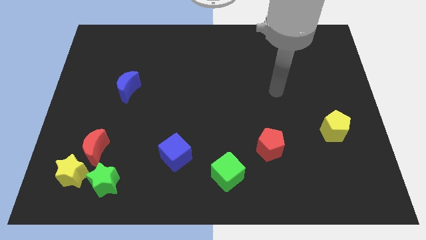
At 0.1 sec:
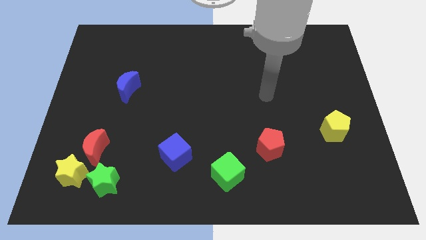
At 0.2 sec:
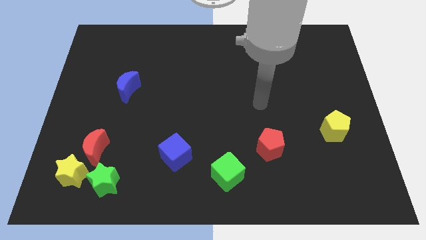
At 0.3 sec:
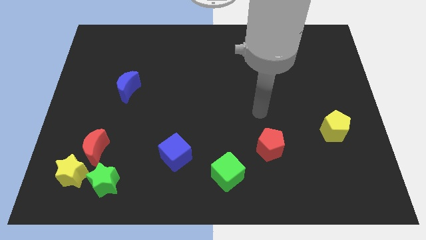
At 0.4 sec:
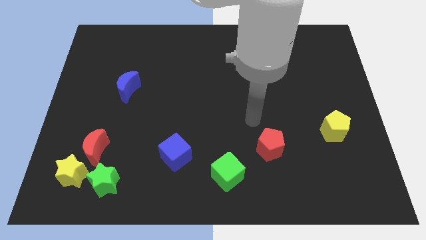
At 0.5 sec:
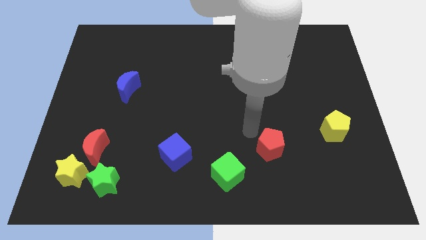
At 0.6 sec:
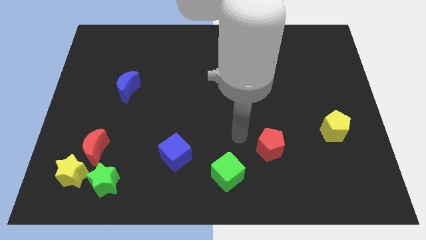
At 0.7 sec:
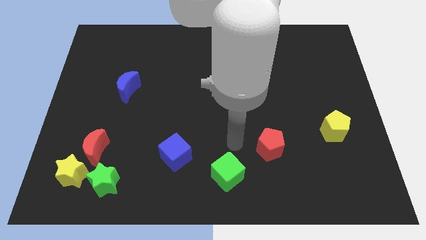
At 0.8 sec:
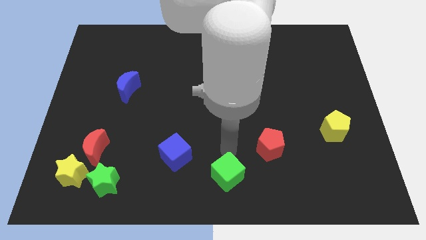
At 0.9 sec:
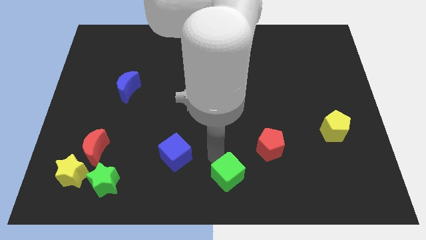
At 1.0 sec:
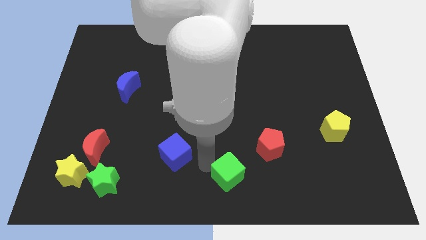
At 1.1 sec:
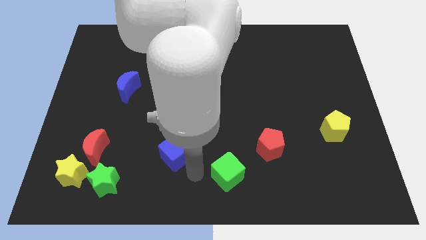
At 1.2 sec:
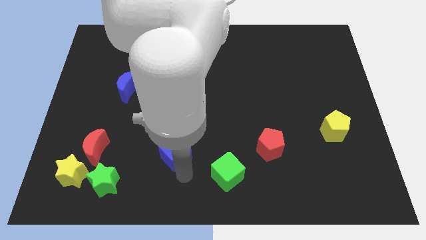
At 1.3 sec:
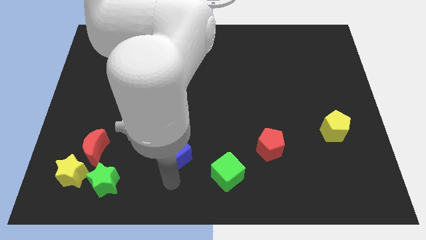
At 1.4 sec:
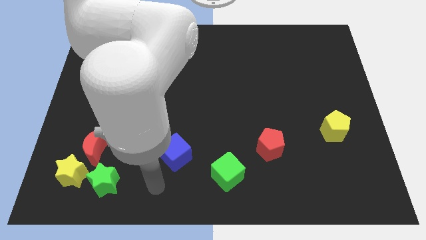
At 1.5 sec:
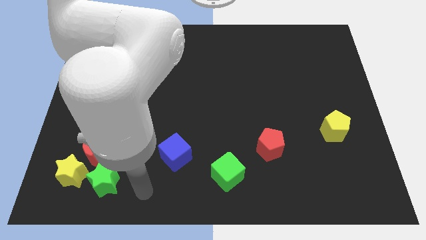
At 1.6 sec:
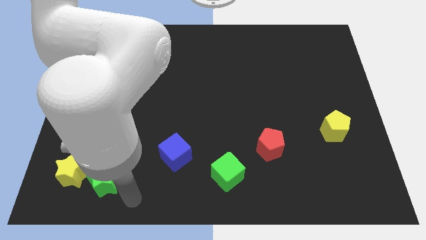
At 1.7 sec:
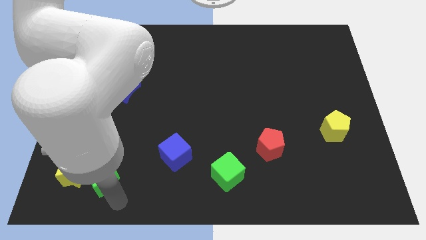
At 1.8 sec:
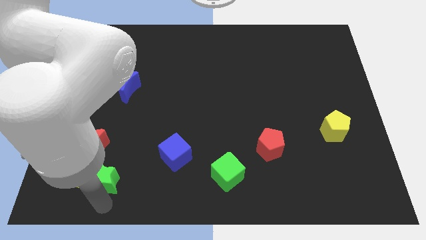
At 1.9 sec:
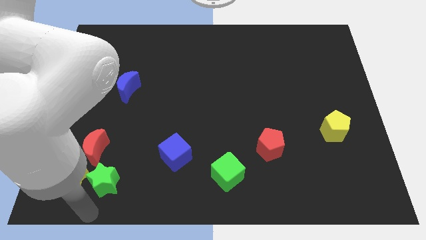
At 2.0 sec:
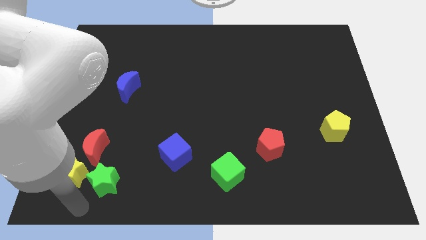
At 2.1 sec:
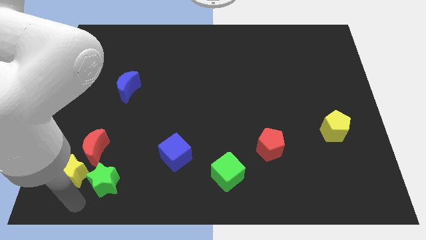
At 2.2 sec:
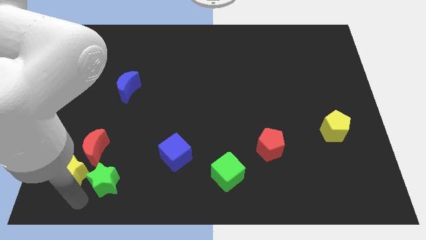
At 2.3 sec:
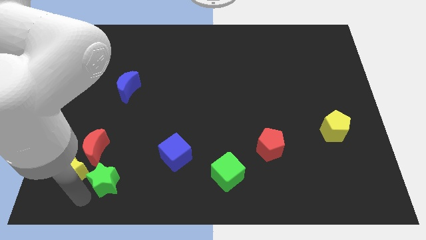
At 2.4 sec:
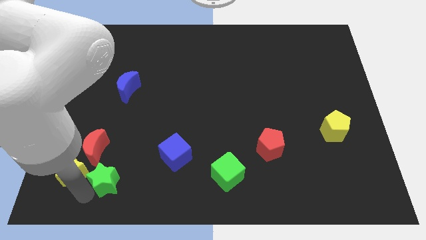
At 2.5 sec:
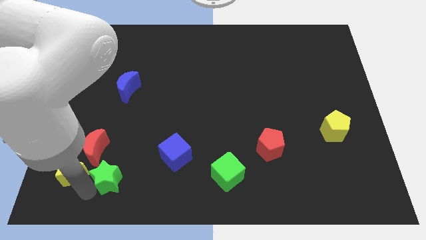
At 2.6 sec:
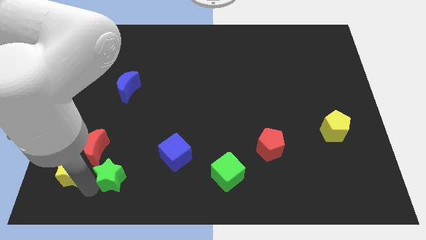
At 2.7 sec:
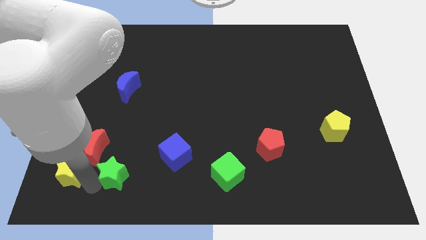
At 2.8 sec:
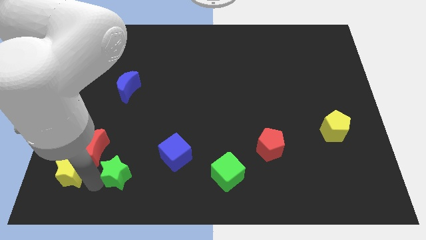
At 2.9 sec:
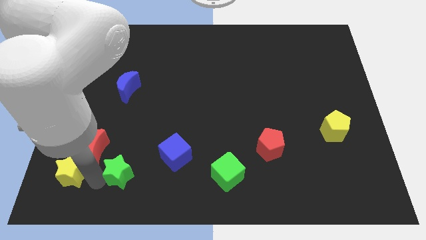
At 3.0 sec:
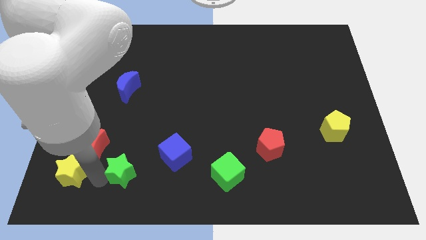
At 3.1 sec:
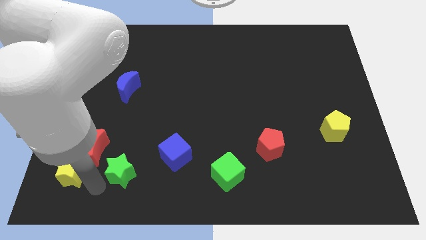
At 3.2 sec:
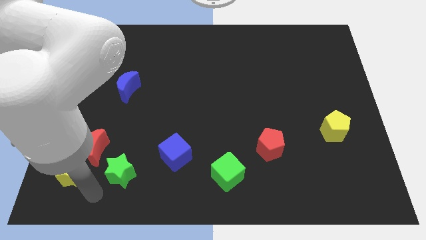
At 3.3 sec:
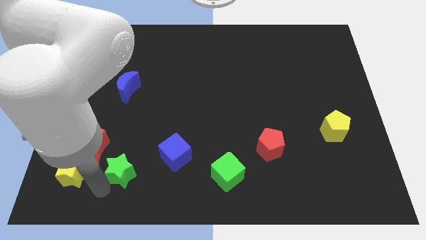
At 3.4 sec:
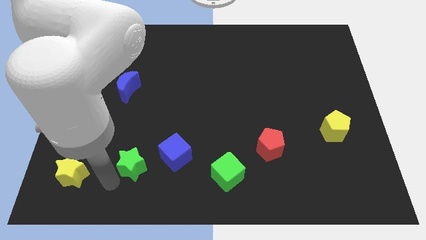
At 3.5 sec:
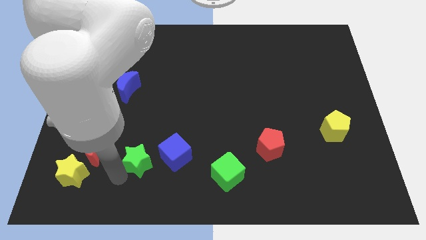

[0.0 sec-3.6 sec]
push the green star somewhat diagonally upwards and right

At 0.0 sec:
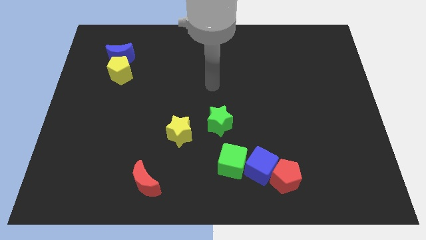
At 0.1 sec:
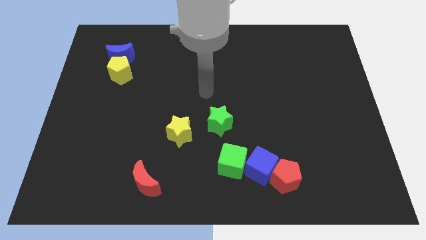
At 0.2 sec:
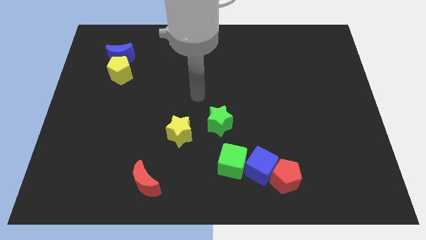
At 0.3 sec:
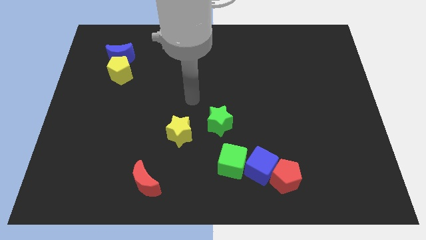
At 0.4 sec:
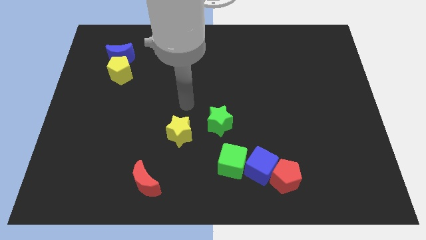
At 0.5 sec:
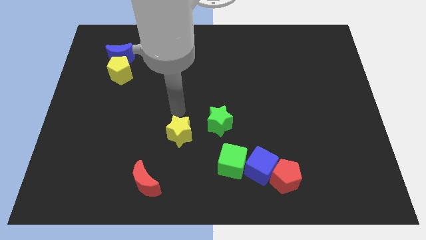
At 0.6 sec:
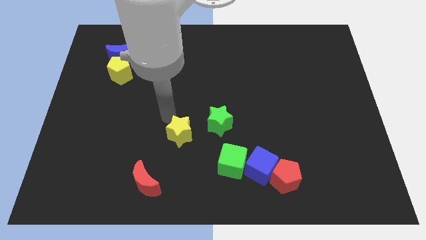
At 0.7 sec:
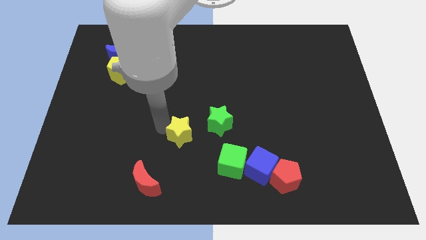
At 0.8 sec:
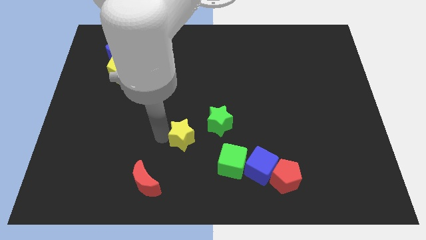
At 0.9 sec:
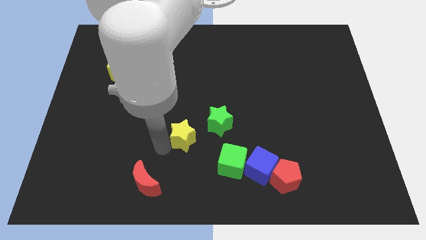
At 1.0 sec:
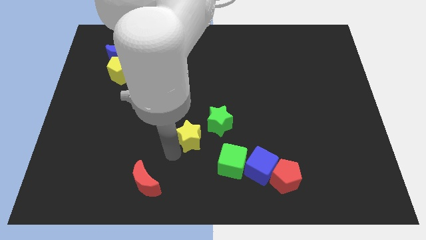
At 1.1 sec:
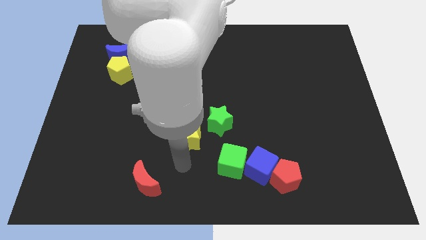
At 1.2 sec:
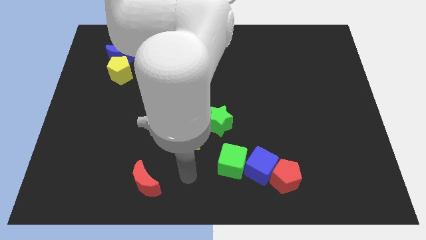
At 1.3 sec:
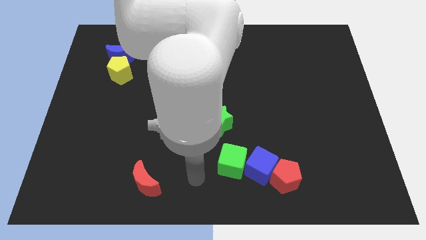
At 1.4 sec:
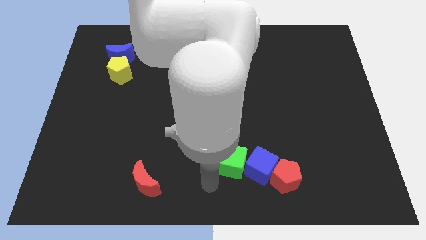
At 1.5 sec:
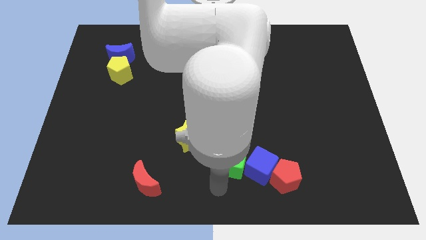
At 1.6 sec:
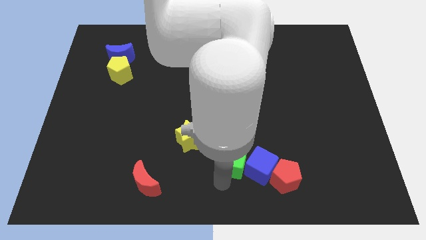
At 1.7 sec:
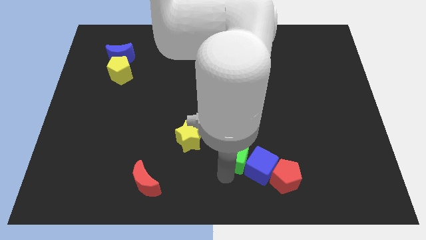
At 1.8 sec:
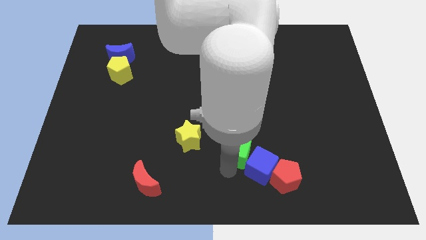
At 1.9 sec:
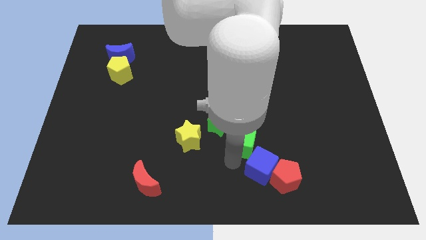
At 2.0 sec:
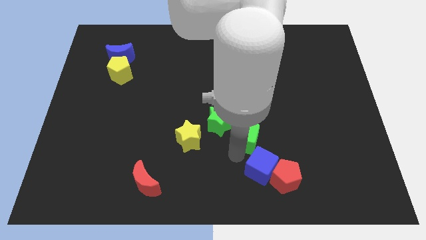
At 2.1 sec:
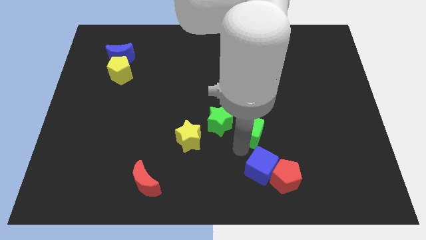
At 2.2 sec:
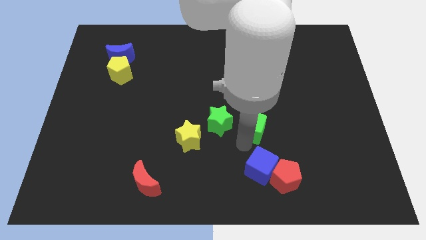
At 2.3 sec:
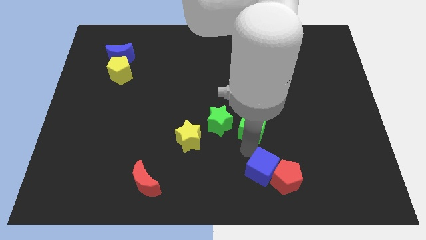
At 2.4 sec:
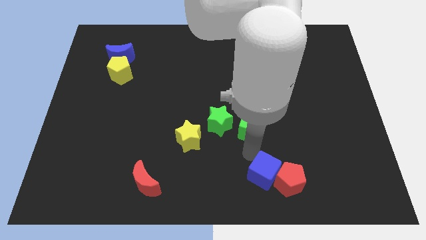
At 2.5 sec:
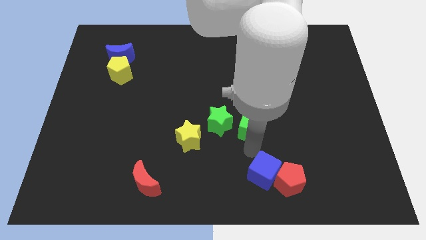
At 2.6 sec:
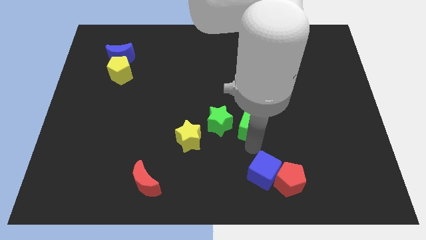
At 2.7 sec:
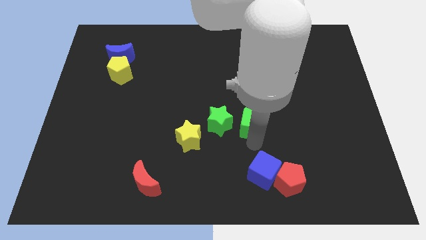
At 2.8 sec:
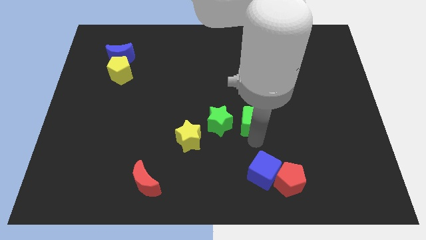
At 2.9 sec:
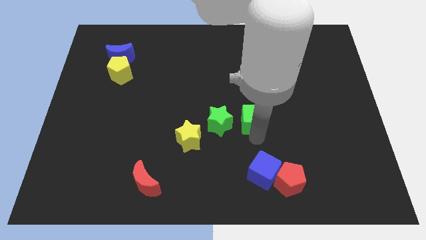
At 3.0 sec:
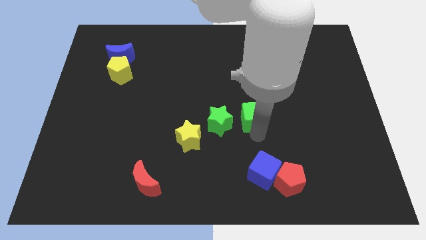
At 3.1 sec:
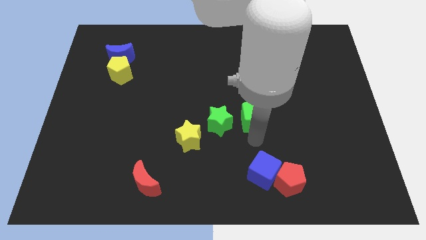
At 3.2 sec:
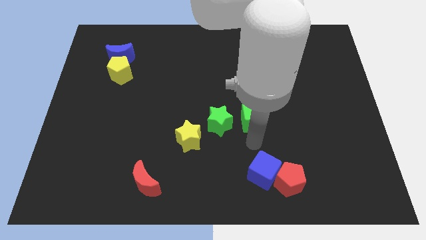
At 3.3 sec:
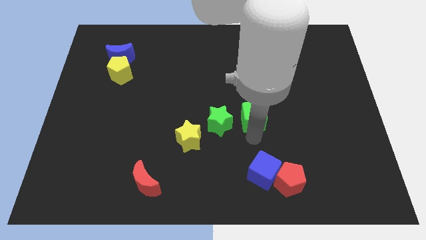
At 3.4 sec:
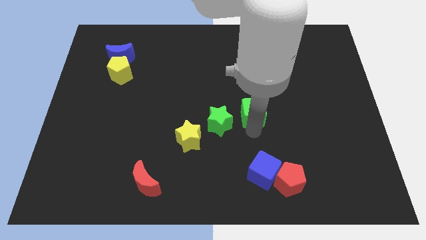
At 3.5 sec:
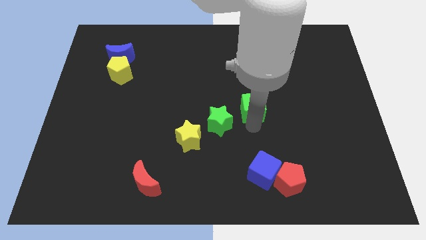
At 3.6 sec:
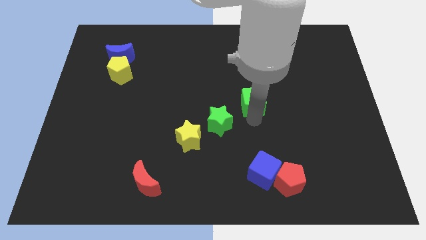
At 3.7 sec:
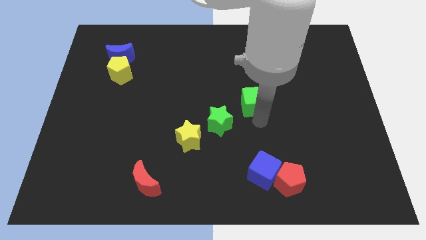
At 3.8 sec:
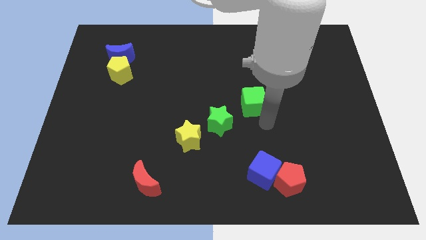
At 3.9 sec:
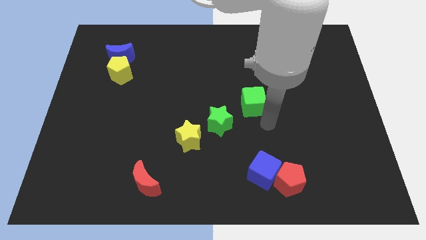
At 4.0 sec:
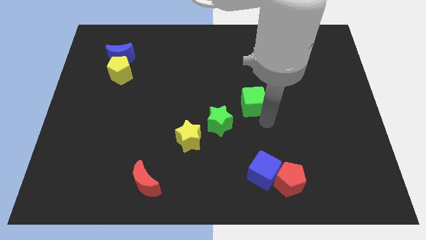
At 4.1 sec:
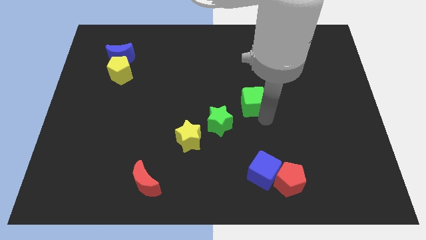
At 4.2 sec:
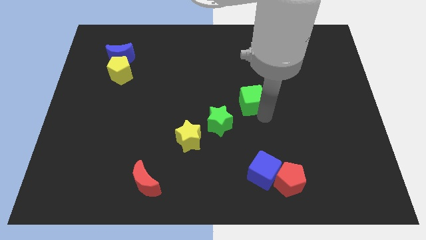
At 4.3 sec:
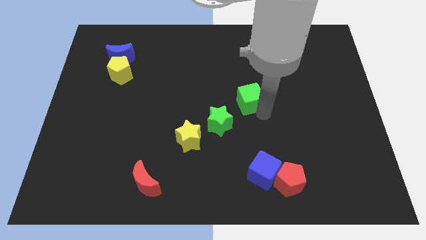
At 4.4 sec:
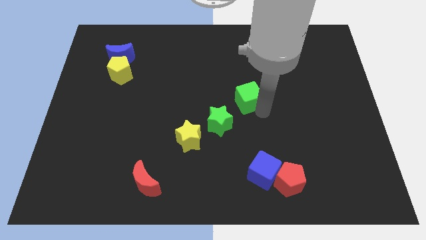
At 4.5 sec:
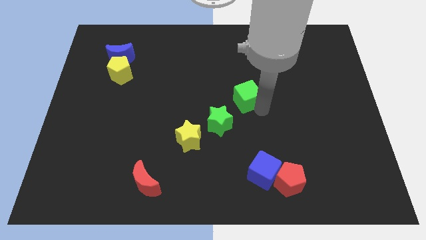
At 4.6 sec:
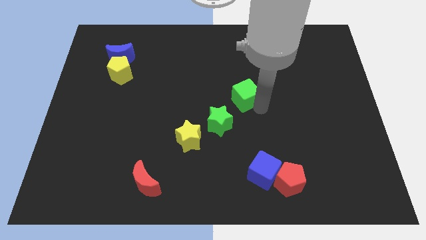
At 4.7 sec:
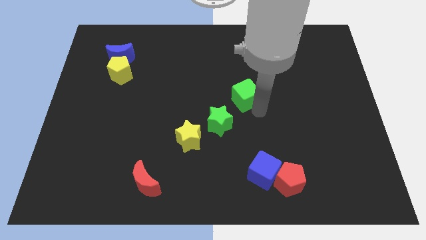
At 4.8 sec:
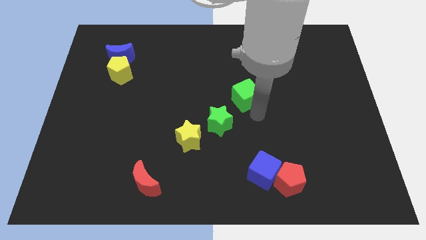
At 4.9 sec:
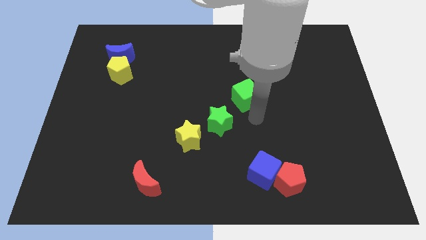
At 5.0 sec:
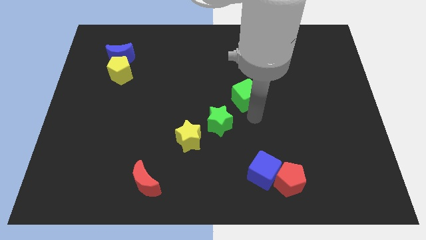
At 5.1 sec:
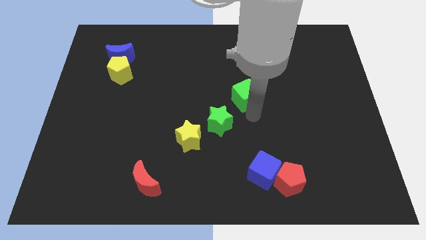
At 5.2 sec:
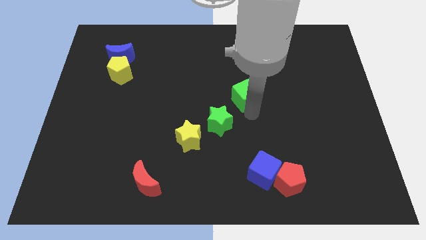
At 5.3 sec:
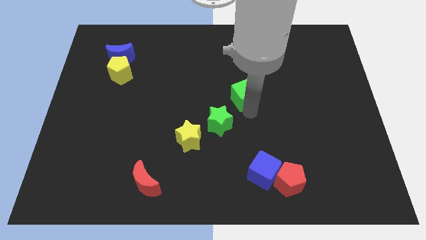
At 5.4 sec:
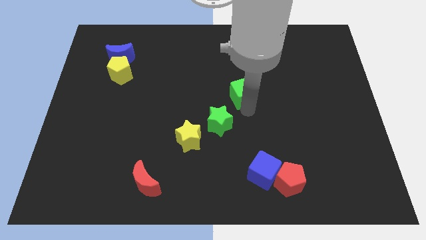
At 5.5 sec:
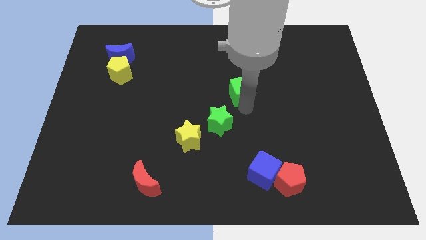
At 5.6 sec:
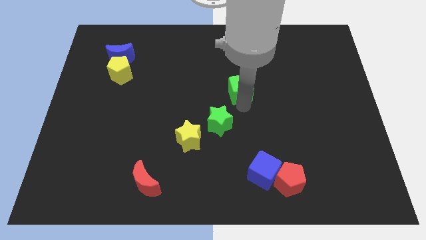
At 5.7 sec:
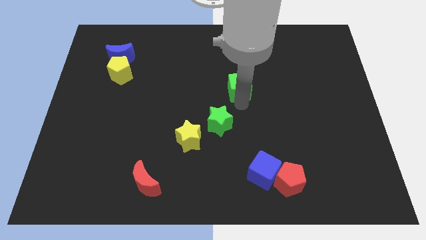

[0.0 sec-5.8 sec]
push the green cube up
